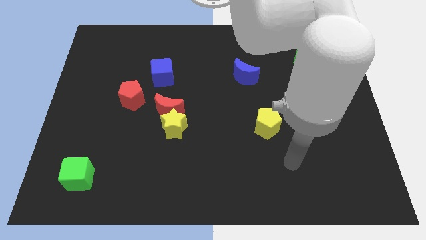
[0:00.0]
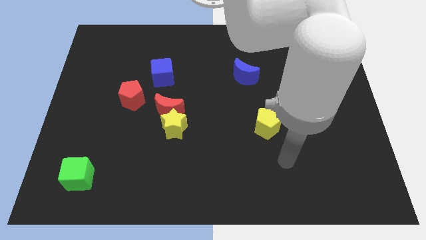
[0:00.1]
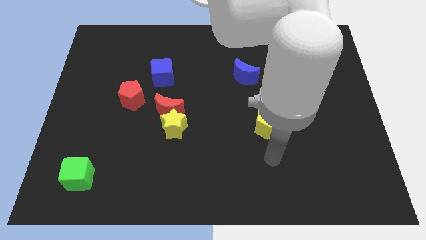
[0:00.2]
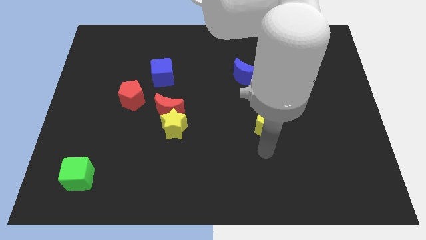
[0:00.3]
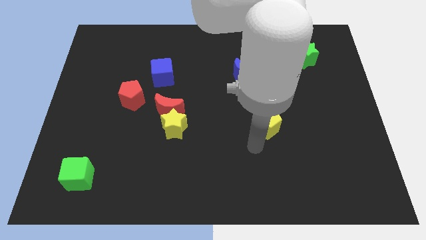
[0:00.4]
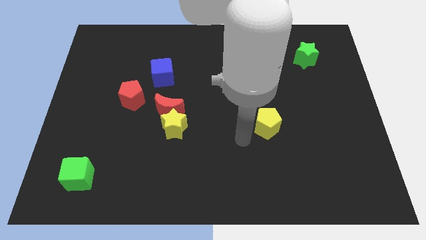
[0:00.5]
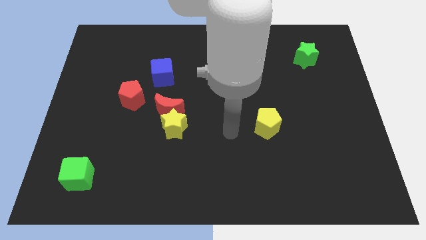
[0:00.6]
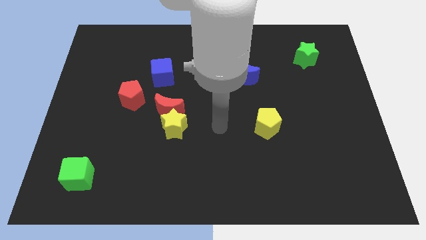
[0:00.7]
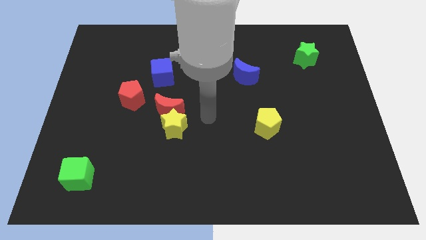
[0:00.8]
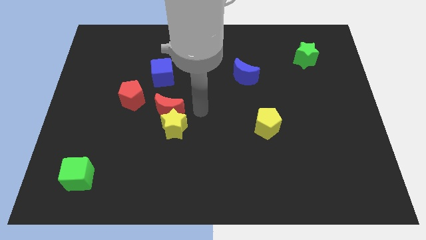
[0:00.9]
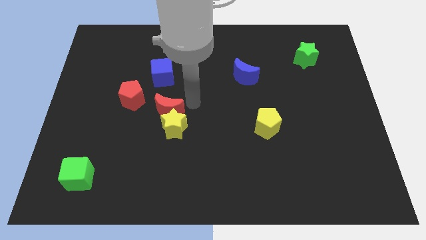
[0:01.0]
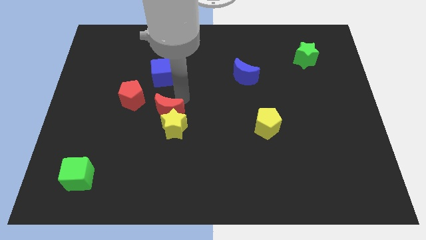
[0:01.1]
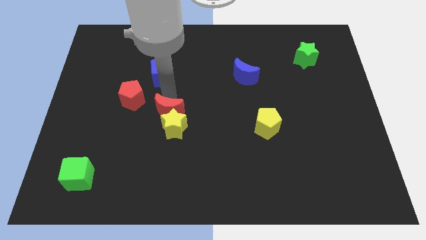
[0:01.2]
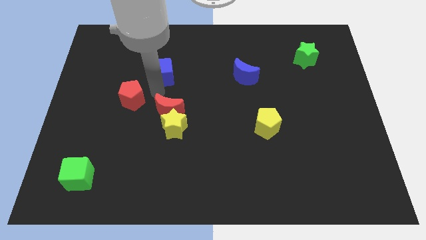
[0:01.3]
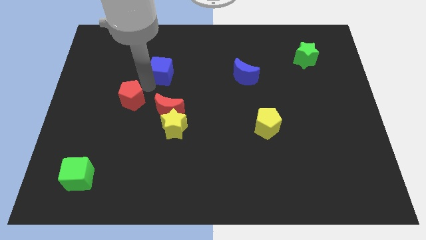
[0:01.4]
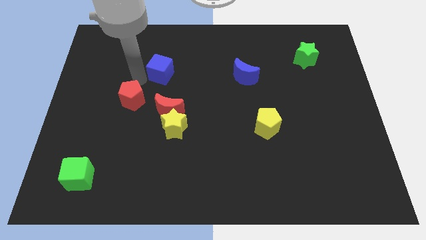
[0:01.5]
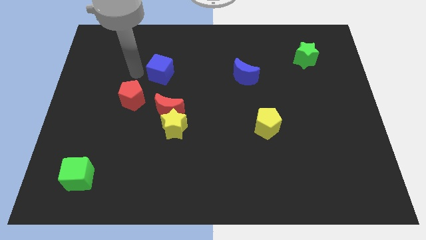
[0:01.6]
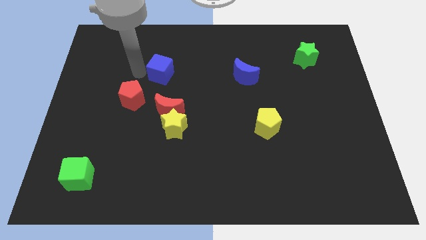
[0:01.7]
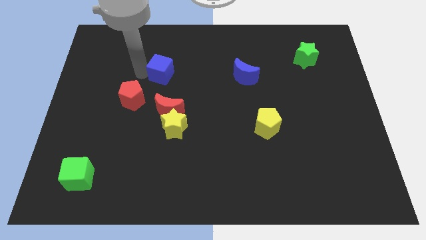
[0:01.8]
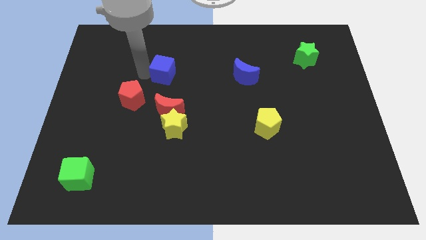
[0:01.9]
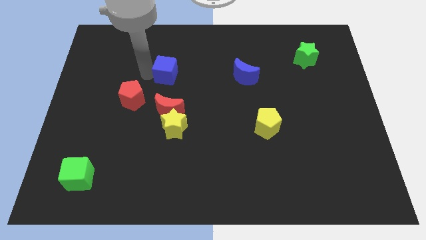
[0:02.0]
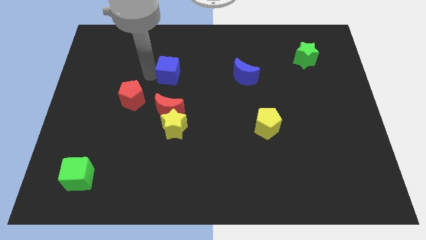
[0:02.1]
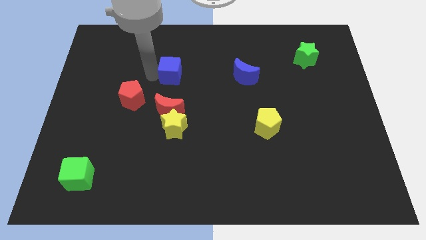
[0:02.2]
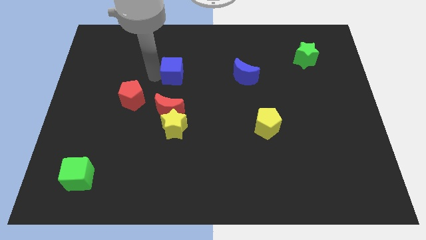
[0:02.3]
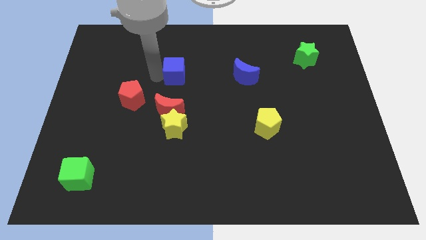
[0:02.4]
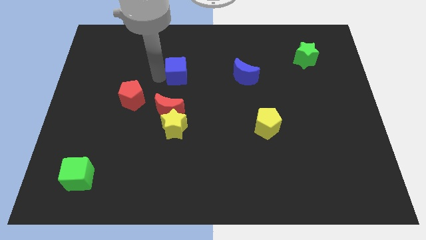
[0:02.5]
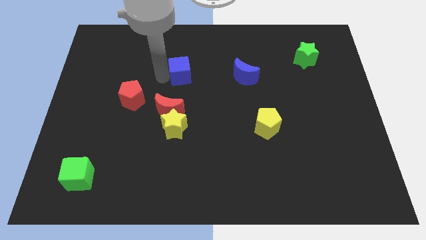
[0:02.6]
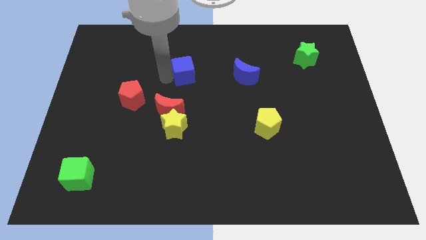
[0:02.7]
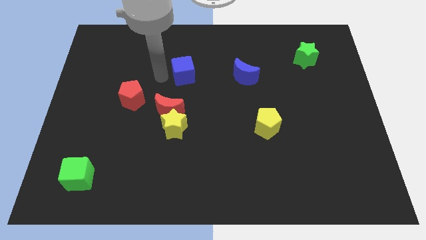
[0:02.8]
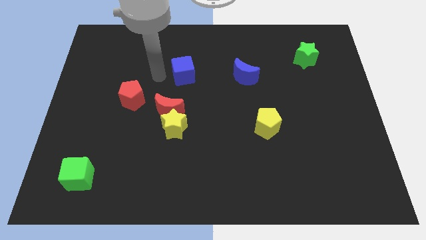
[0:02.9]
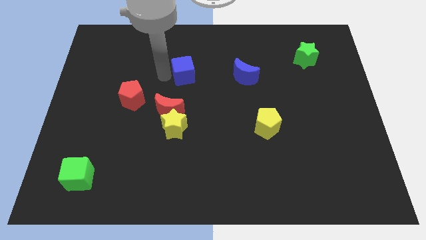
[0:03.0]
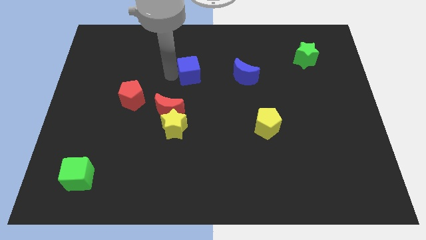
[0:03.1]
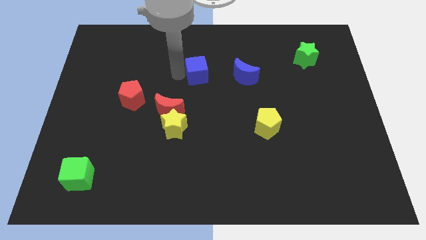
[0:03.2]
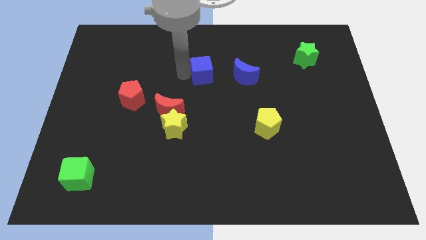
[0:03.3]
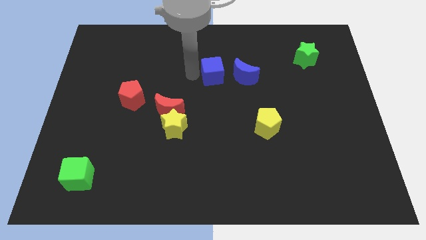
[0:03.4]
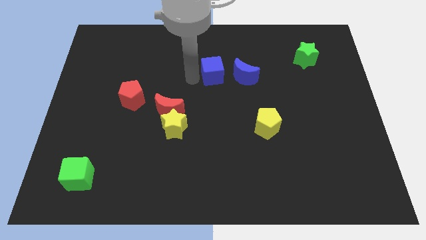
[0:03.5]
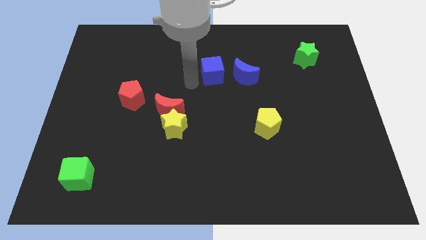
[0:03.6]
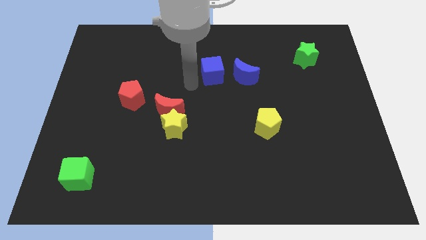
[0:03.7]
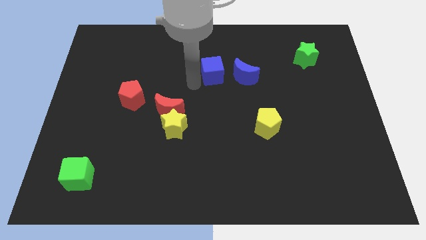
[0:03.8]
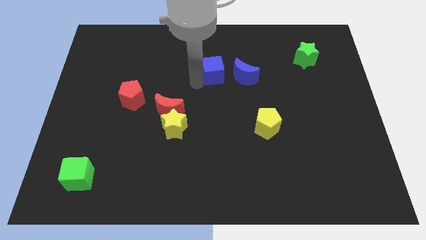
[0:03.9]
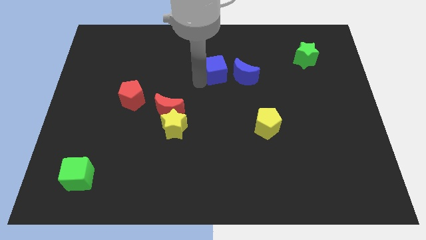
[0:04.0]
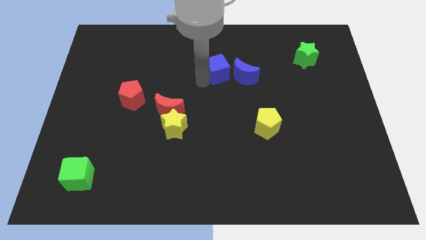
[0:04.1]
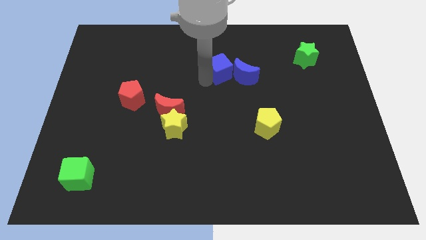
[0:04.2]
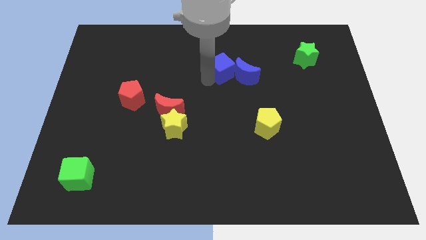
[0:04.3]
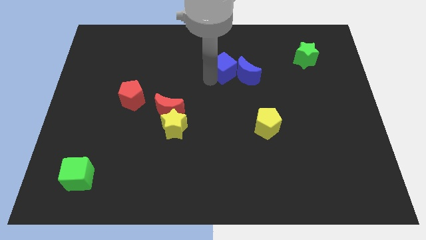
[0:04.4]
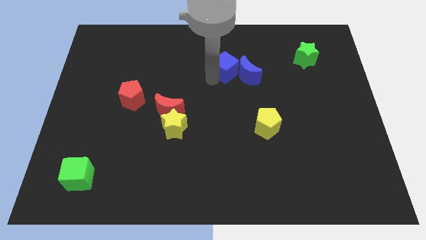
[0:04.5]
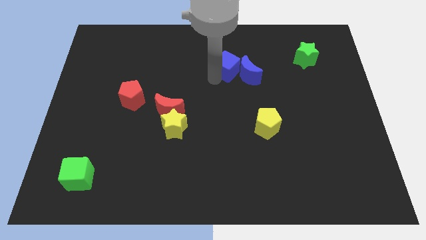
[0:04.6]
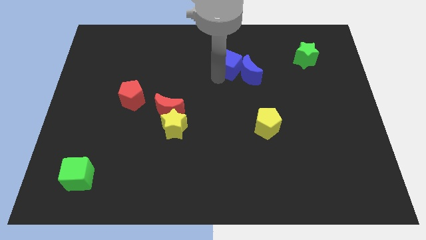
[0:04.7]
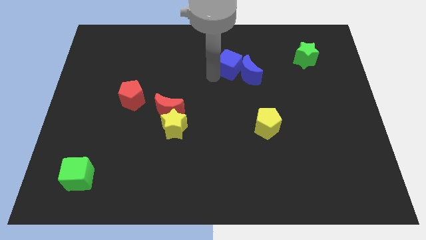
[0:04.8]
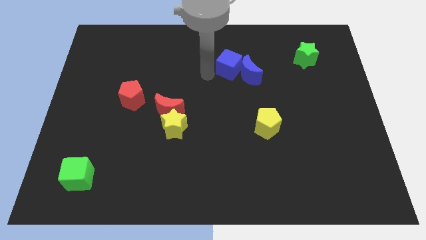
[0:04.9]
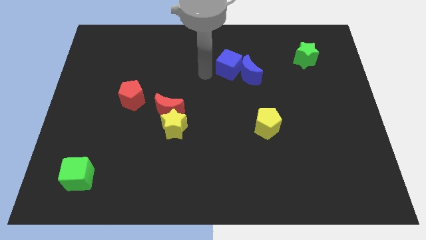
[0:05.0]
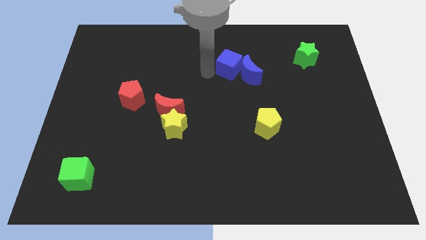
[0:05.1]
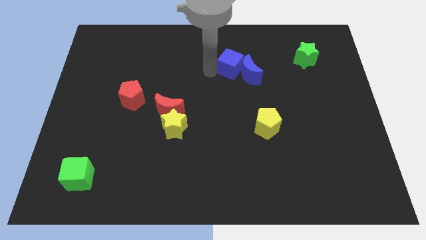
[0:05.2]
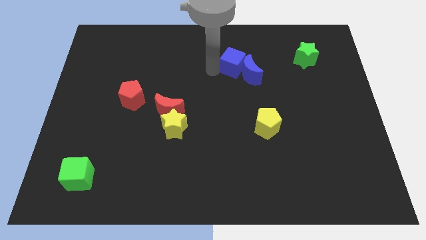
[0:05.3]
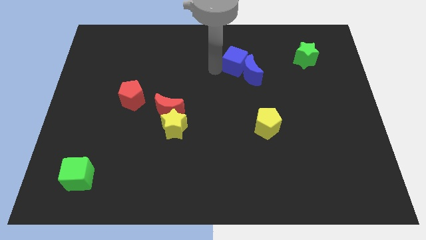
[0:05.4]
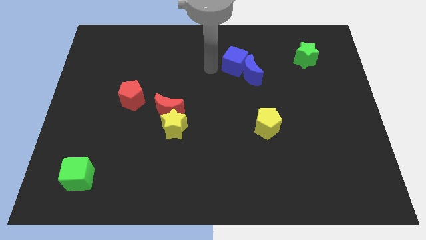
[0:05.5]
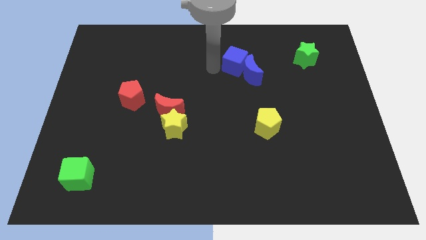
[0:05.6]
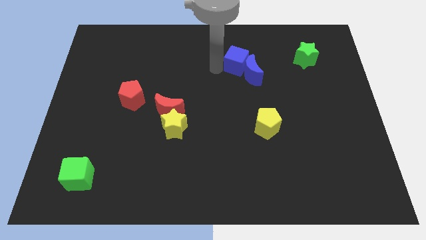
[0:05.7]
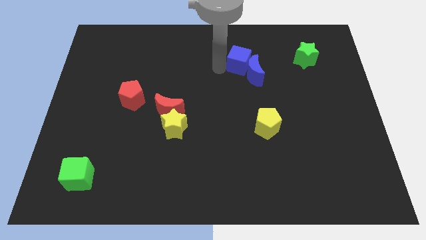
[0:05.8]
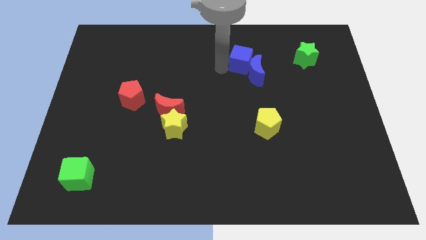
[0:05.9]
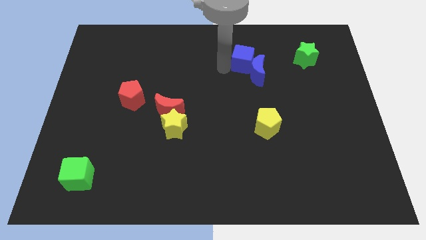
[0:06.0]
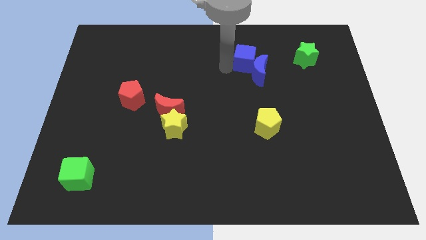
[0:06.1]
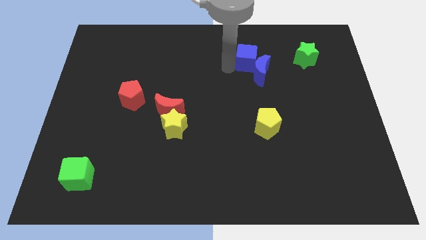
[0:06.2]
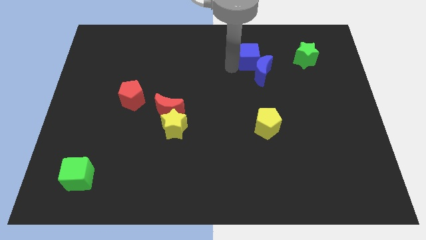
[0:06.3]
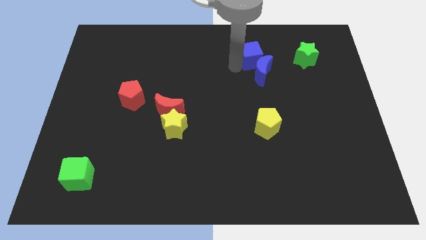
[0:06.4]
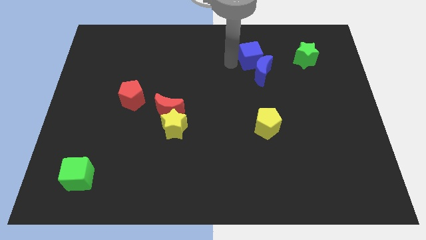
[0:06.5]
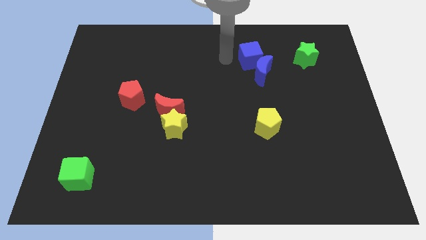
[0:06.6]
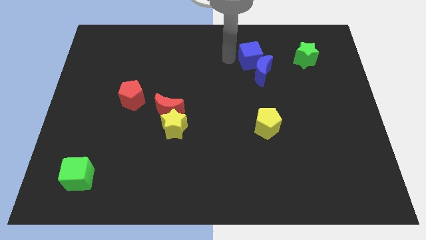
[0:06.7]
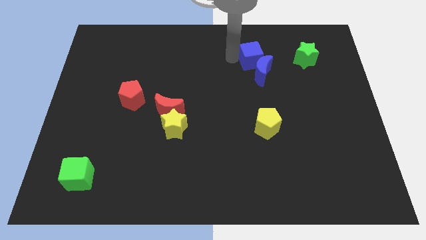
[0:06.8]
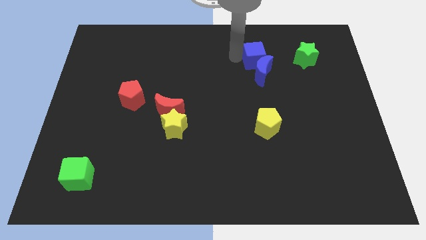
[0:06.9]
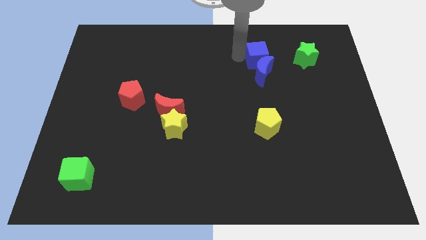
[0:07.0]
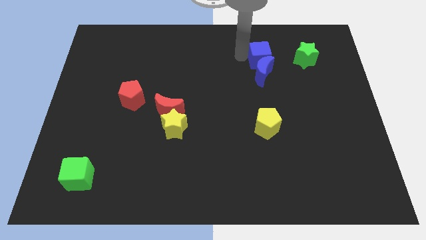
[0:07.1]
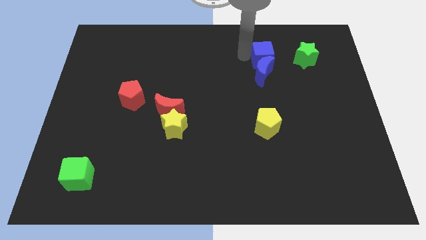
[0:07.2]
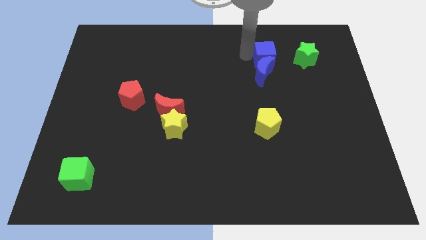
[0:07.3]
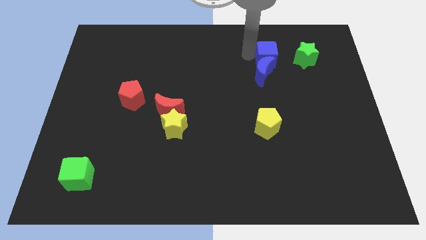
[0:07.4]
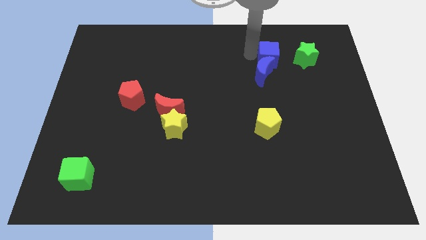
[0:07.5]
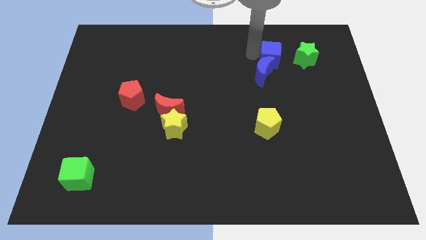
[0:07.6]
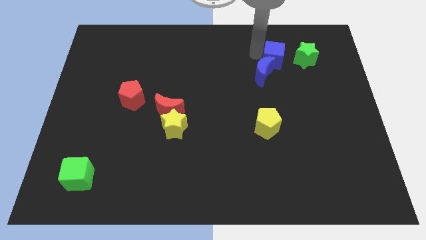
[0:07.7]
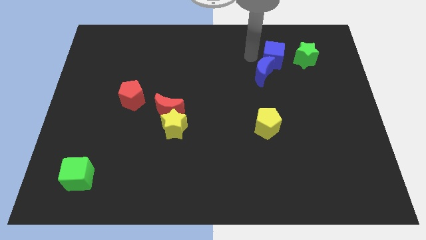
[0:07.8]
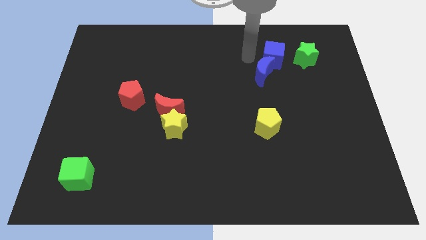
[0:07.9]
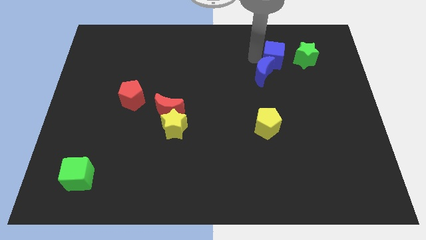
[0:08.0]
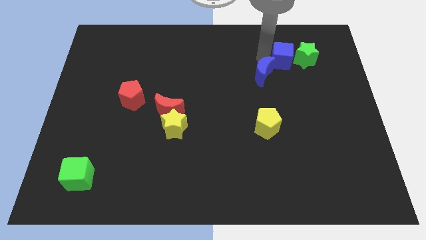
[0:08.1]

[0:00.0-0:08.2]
push the blue cube towards the green star
